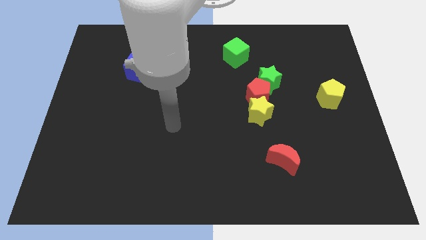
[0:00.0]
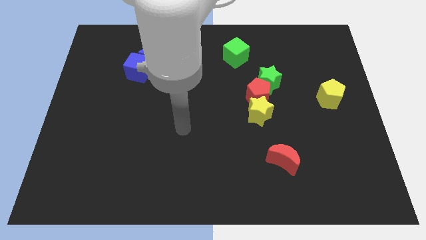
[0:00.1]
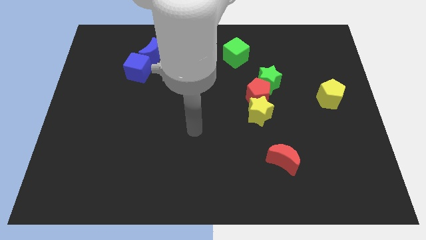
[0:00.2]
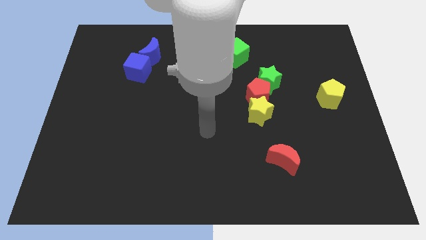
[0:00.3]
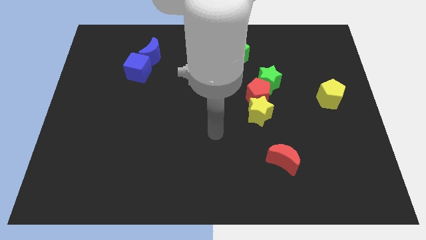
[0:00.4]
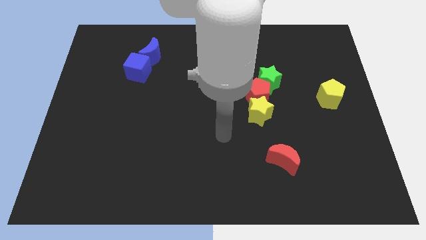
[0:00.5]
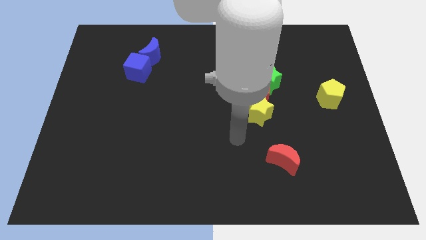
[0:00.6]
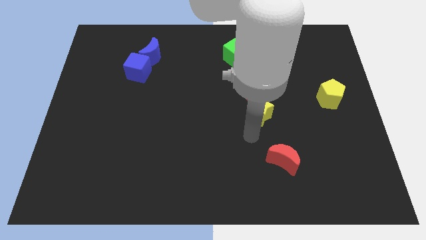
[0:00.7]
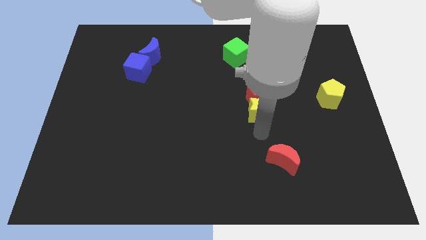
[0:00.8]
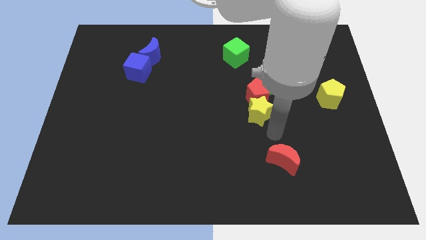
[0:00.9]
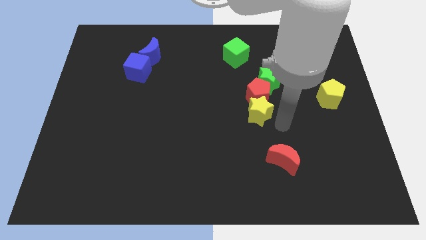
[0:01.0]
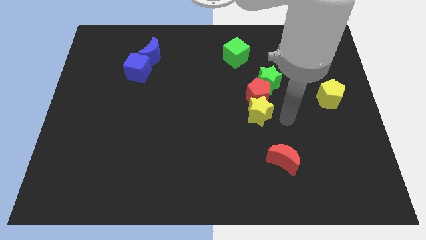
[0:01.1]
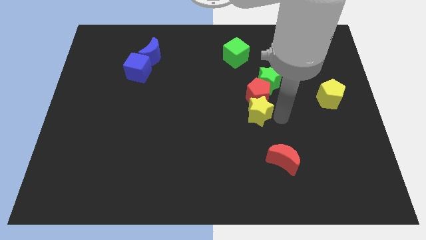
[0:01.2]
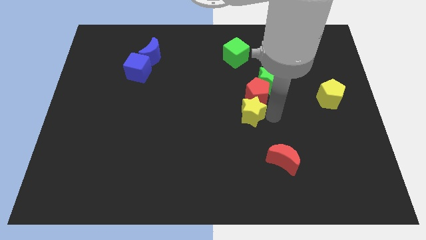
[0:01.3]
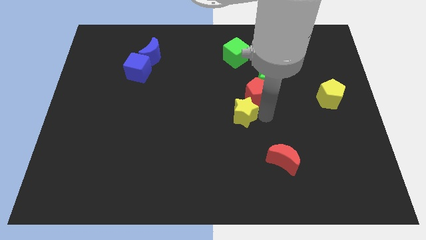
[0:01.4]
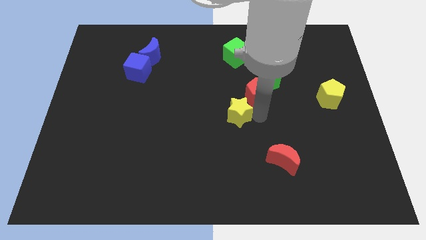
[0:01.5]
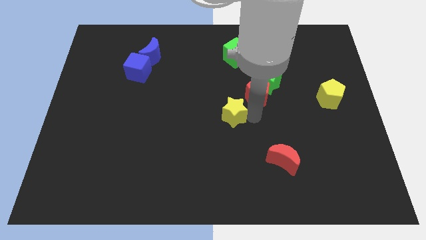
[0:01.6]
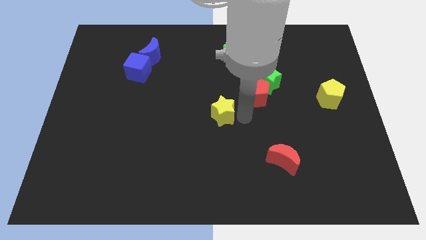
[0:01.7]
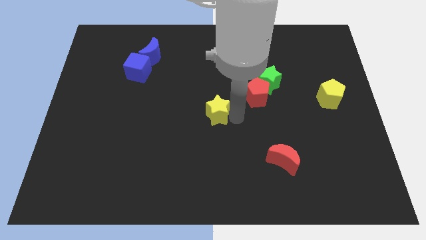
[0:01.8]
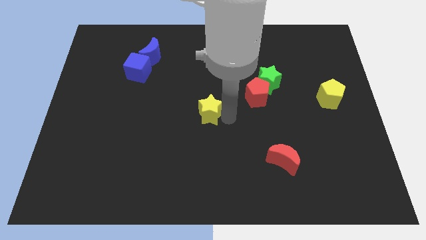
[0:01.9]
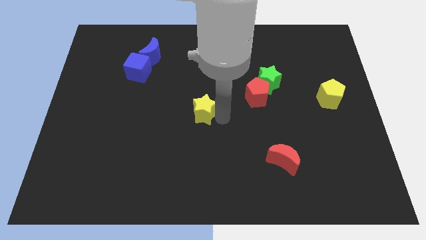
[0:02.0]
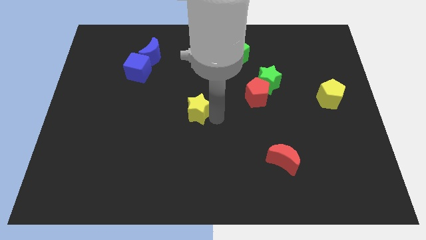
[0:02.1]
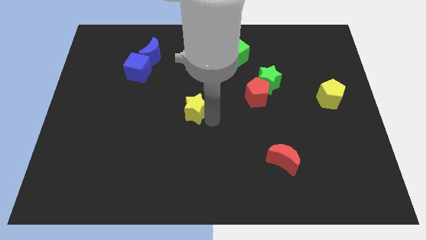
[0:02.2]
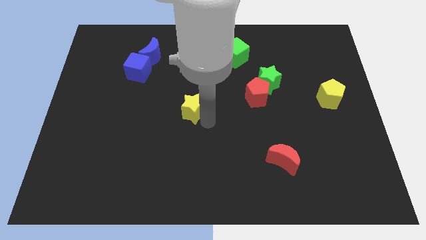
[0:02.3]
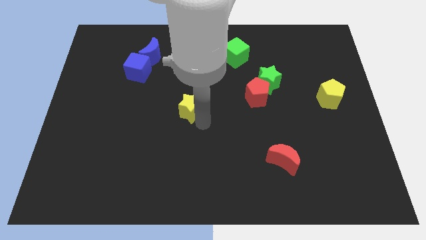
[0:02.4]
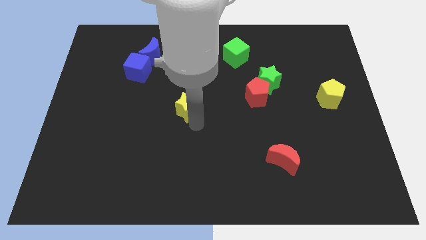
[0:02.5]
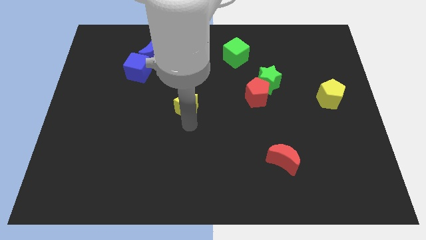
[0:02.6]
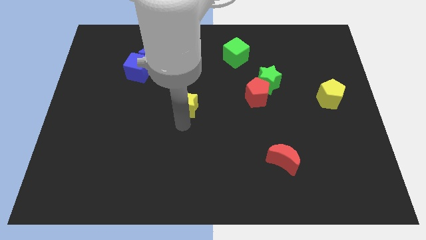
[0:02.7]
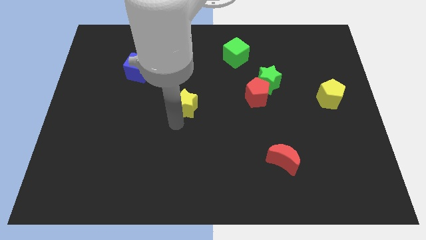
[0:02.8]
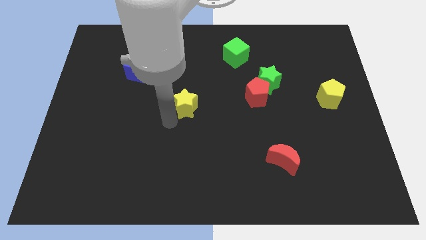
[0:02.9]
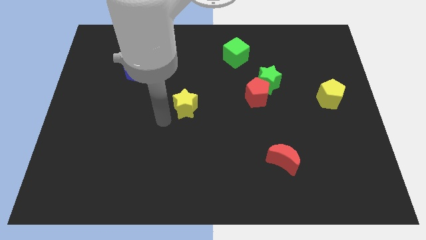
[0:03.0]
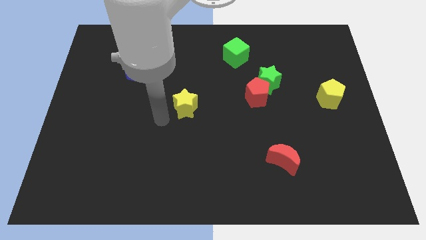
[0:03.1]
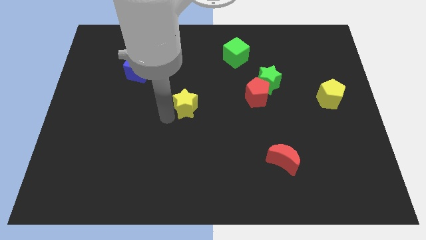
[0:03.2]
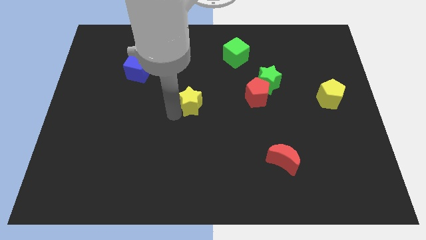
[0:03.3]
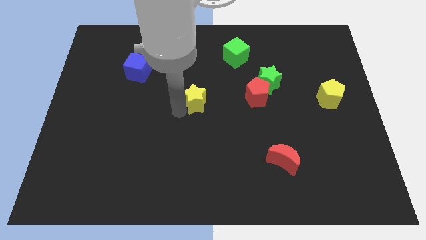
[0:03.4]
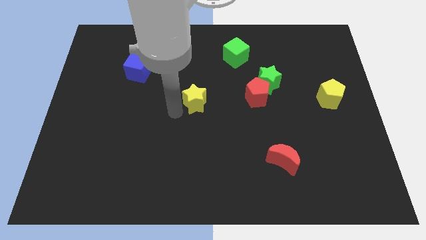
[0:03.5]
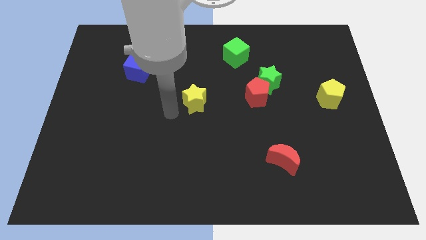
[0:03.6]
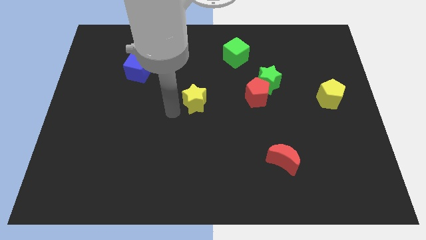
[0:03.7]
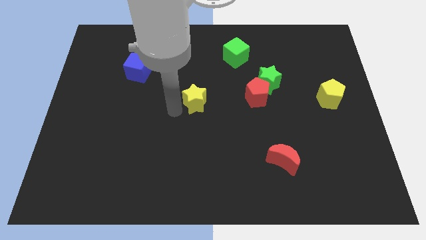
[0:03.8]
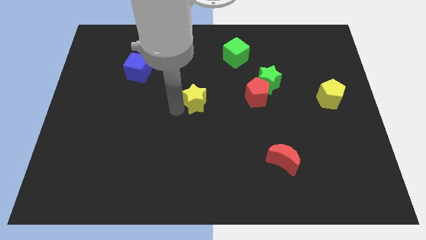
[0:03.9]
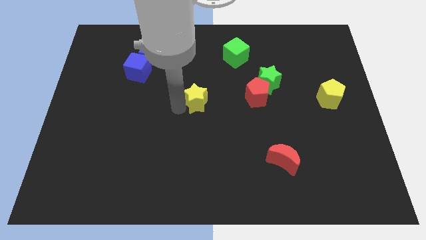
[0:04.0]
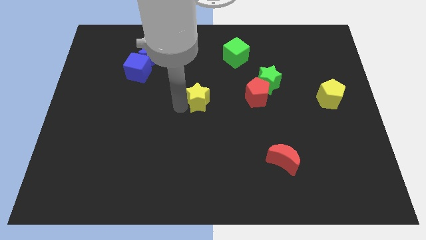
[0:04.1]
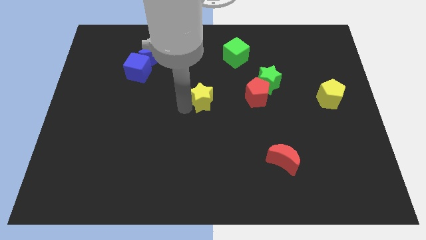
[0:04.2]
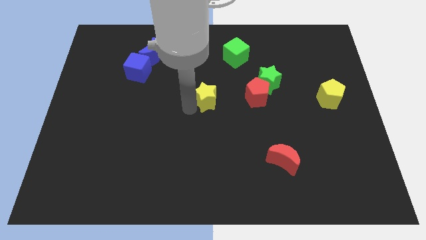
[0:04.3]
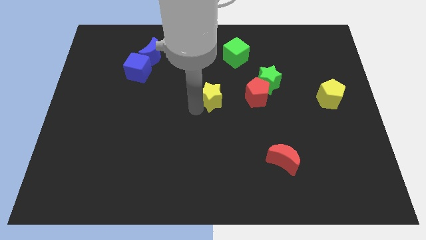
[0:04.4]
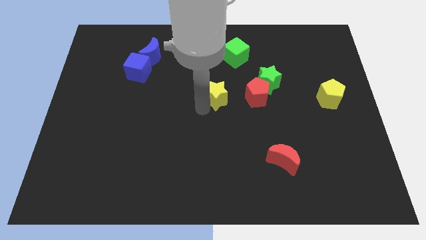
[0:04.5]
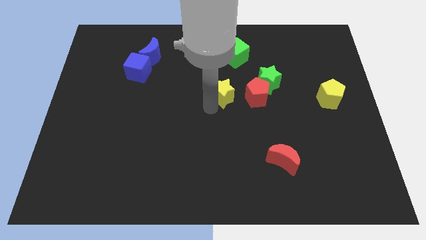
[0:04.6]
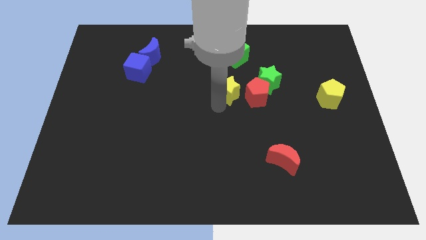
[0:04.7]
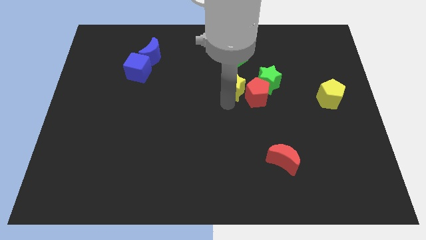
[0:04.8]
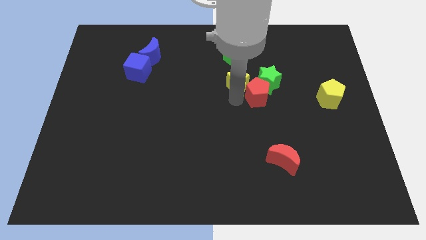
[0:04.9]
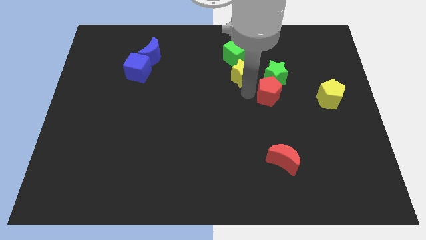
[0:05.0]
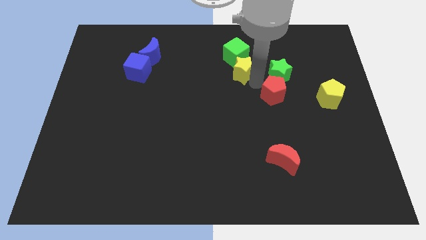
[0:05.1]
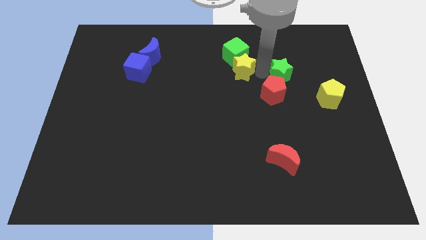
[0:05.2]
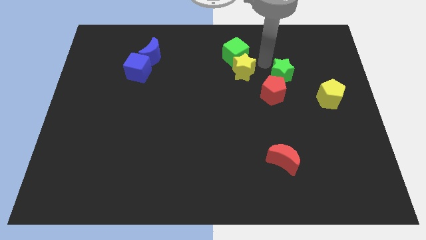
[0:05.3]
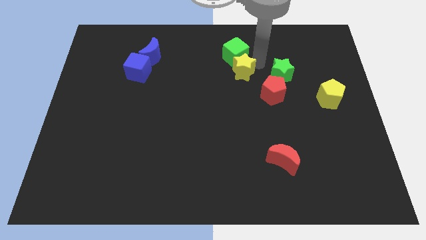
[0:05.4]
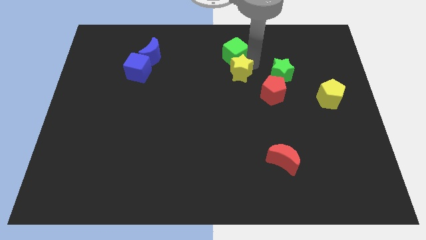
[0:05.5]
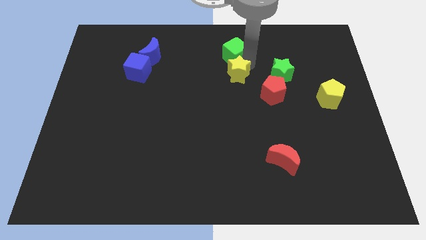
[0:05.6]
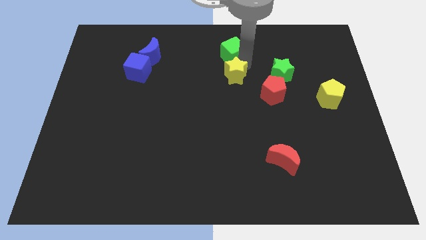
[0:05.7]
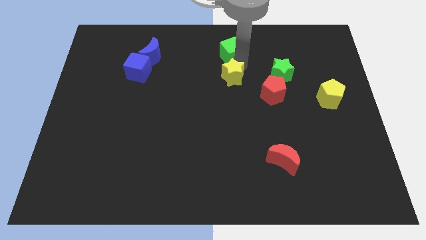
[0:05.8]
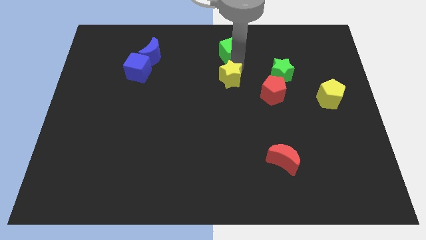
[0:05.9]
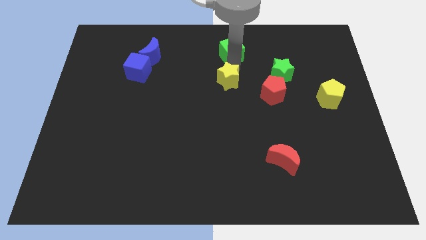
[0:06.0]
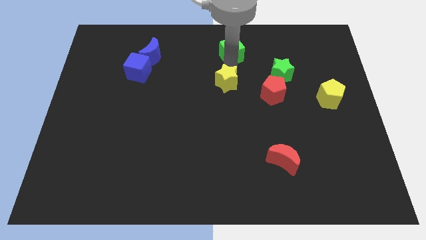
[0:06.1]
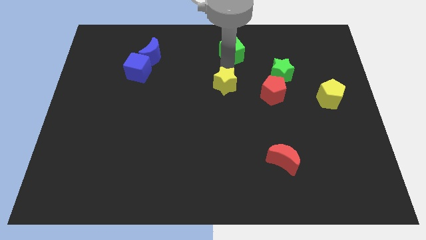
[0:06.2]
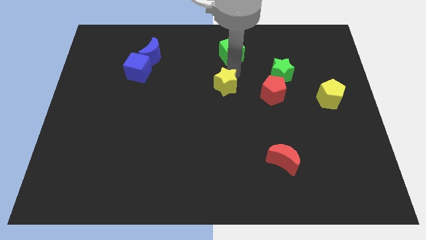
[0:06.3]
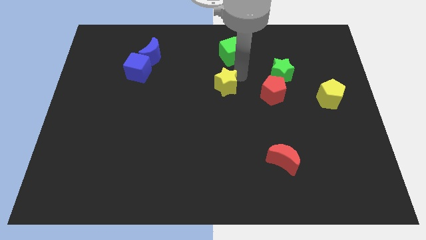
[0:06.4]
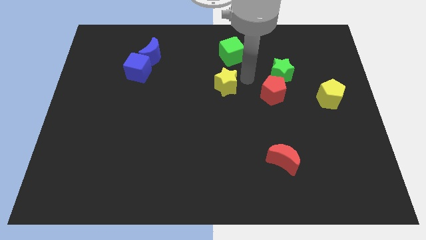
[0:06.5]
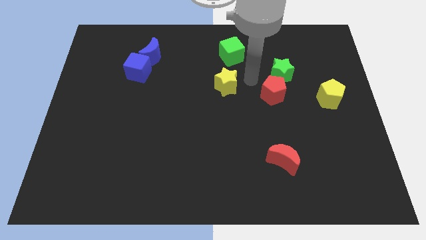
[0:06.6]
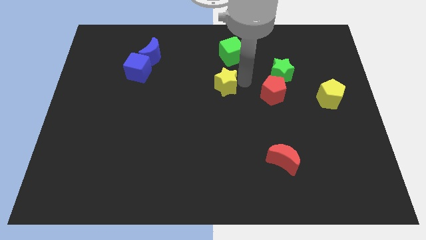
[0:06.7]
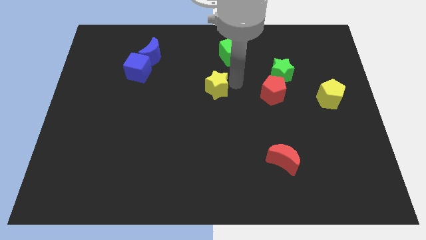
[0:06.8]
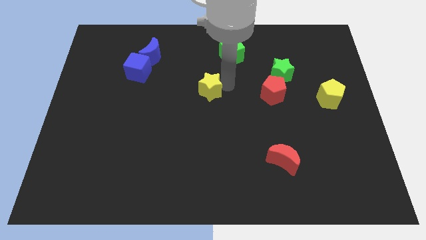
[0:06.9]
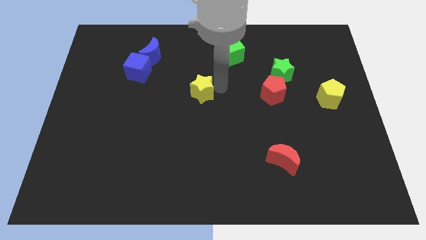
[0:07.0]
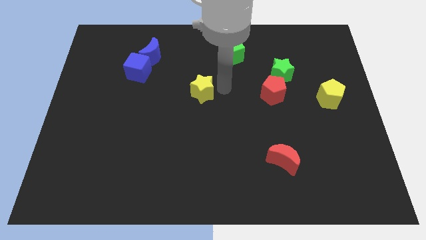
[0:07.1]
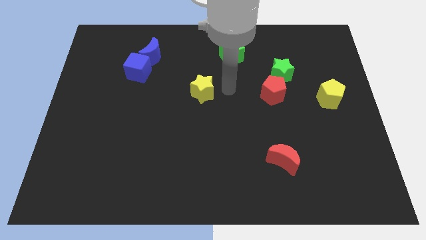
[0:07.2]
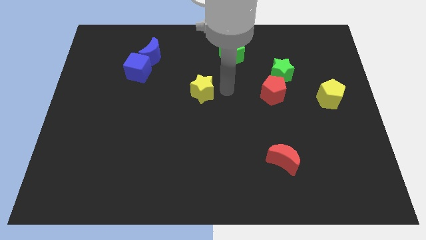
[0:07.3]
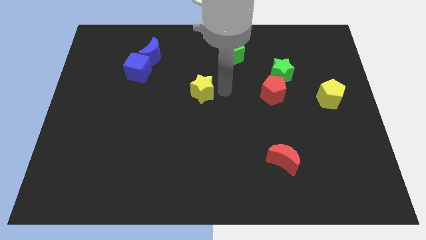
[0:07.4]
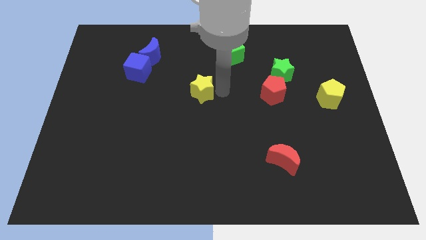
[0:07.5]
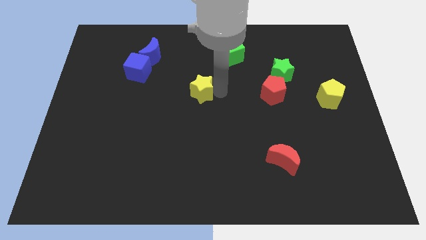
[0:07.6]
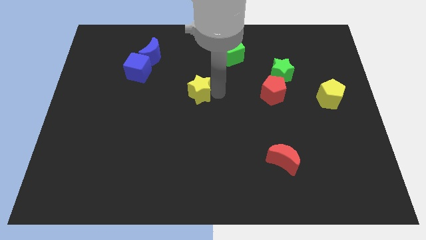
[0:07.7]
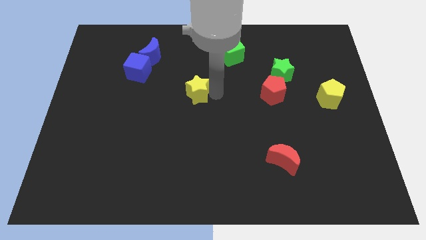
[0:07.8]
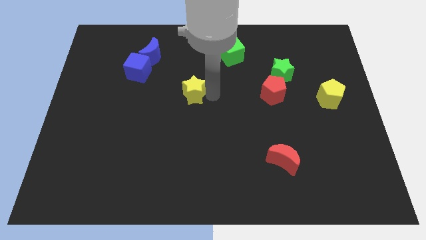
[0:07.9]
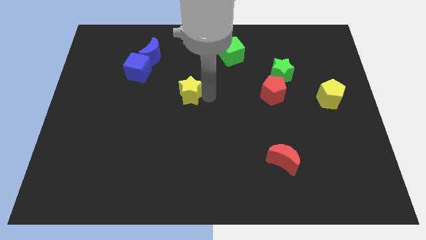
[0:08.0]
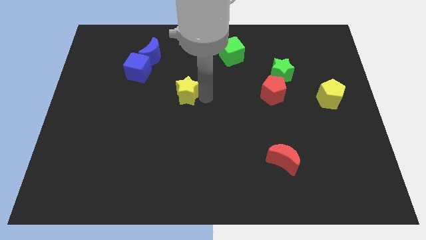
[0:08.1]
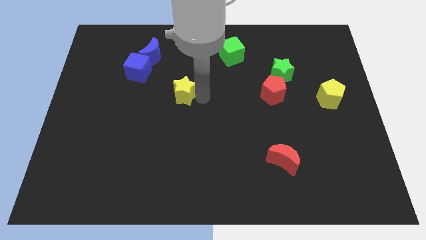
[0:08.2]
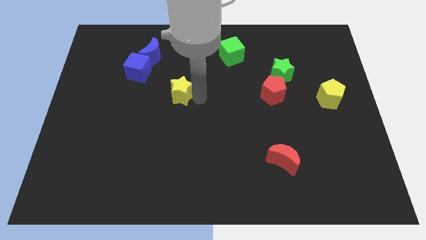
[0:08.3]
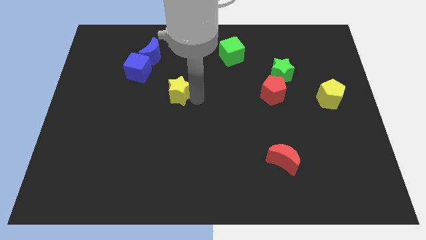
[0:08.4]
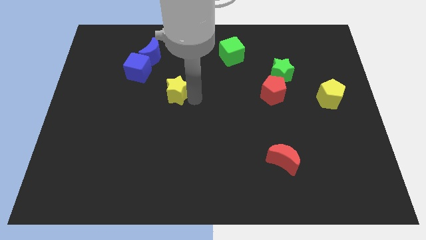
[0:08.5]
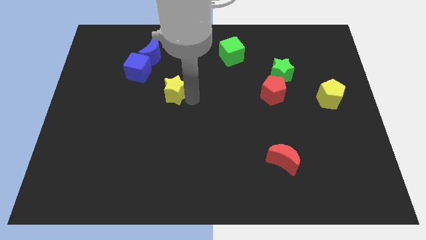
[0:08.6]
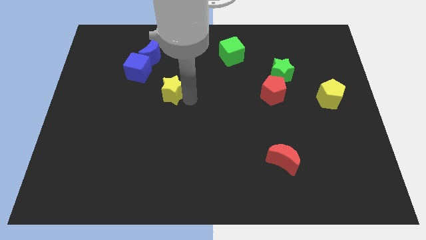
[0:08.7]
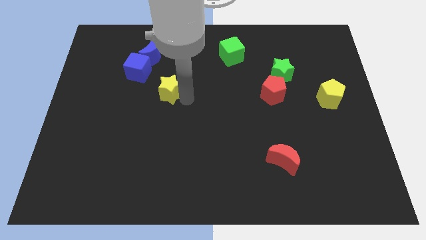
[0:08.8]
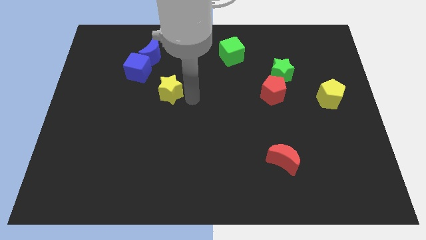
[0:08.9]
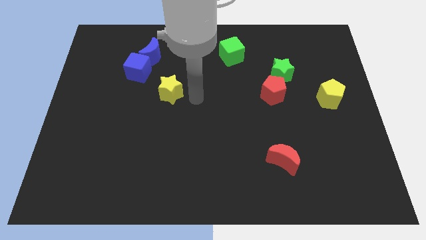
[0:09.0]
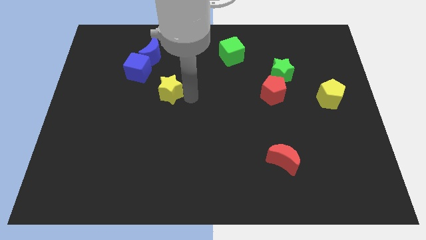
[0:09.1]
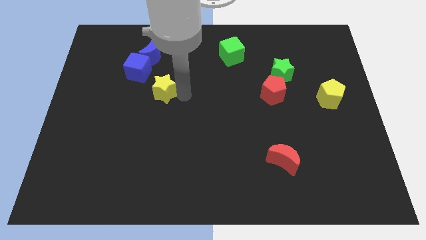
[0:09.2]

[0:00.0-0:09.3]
slide the yellow star to the bottom side of the blue moon
